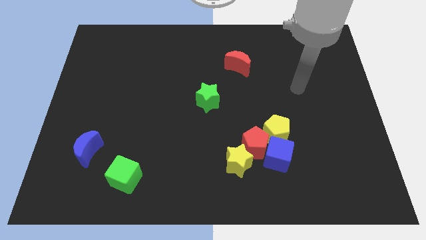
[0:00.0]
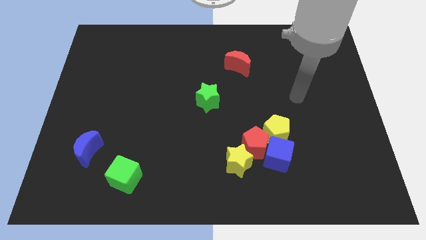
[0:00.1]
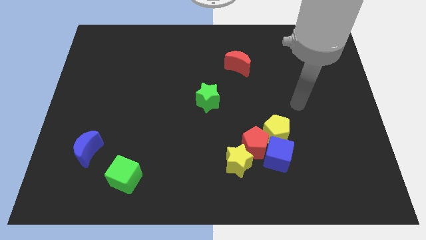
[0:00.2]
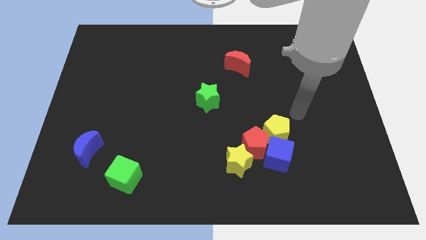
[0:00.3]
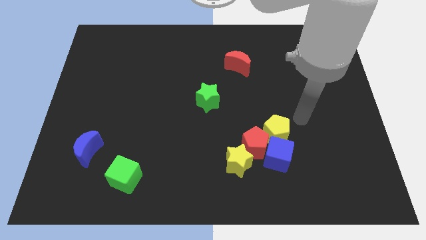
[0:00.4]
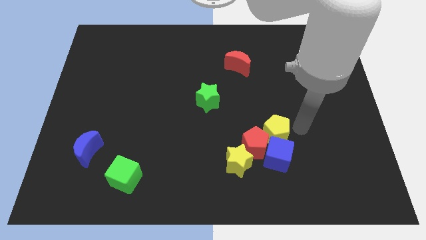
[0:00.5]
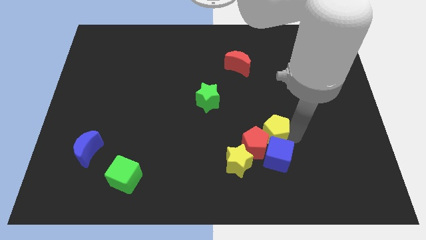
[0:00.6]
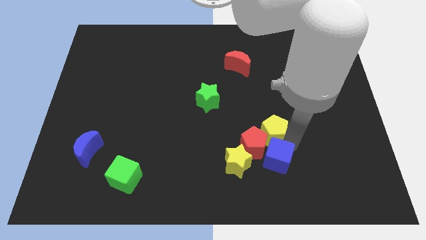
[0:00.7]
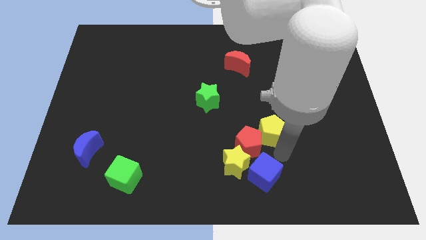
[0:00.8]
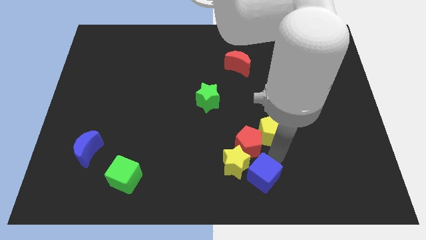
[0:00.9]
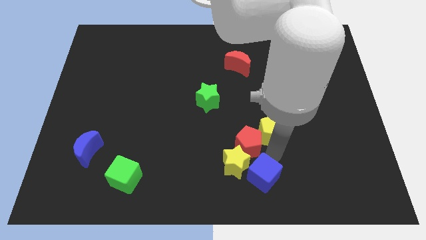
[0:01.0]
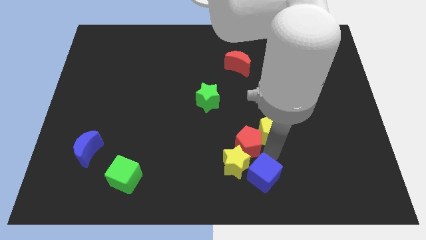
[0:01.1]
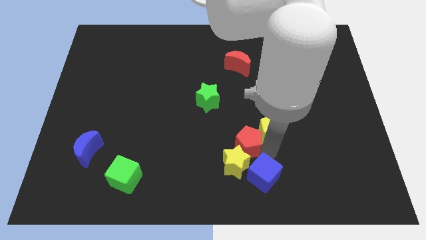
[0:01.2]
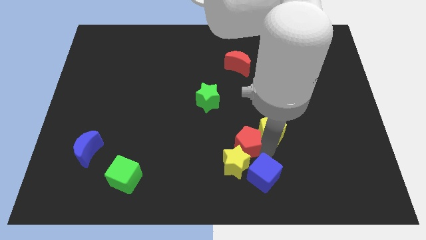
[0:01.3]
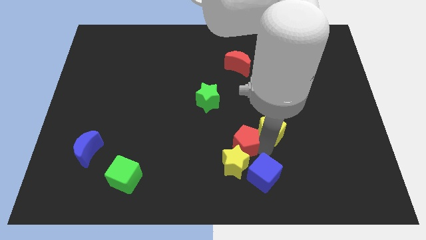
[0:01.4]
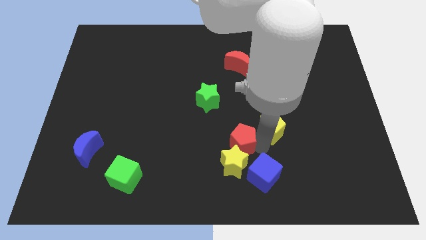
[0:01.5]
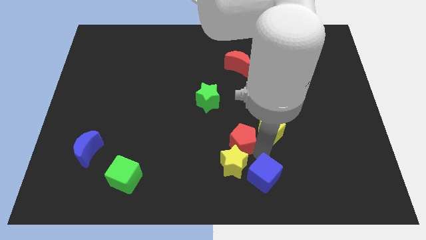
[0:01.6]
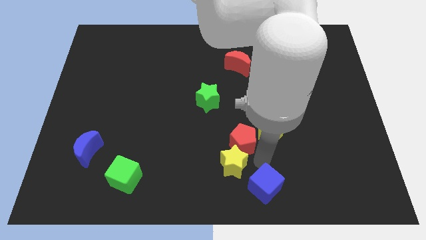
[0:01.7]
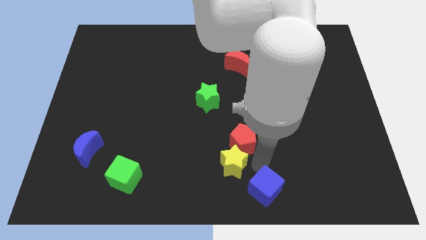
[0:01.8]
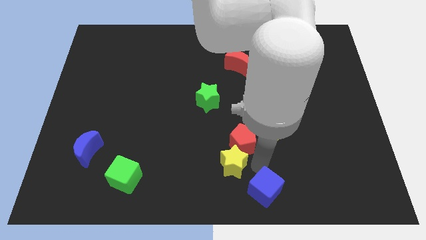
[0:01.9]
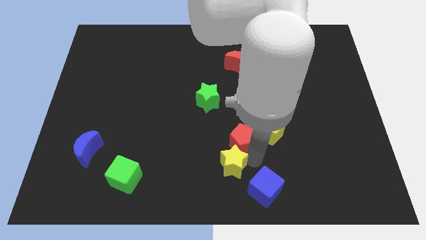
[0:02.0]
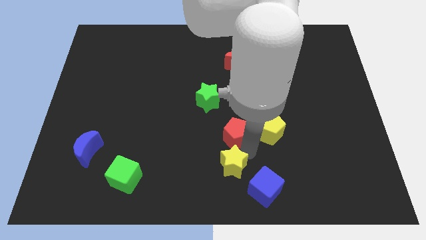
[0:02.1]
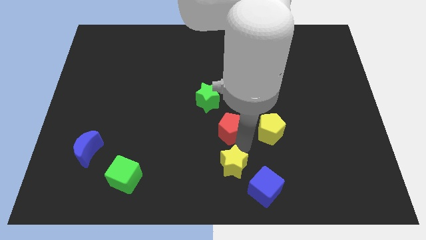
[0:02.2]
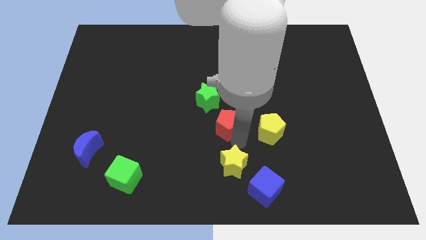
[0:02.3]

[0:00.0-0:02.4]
pull the red pentagon apart from the blue cube, yellow star, and yellow pentagon

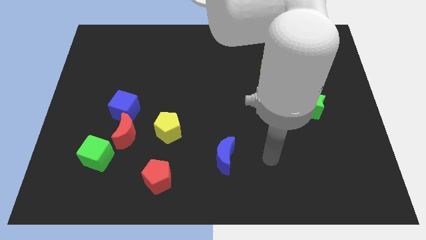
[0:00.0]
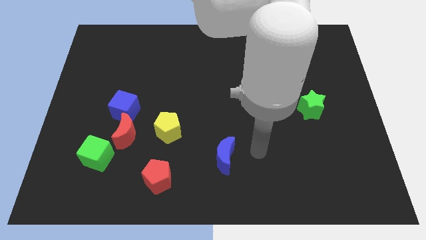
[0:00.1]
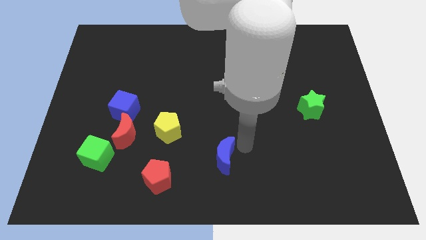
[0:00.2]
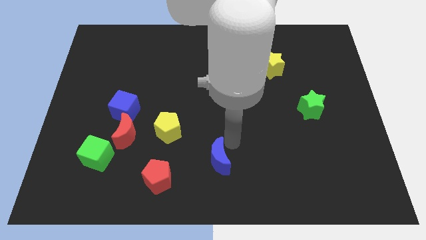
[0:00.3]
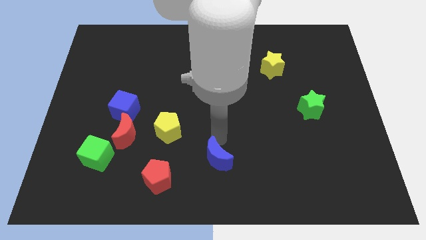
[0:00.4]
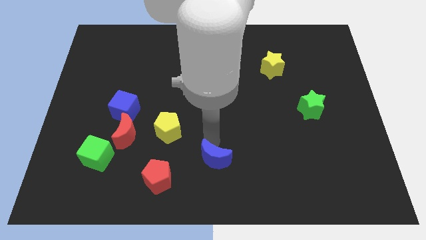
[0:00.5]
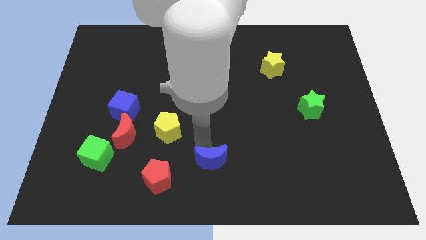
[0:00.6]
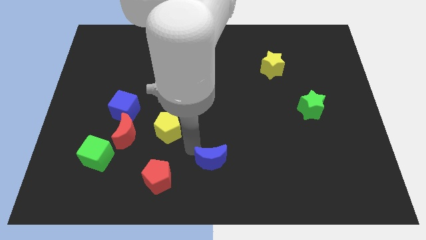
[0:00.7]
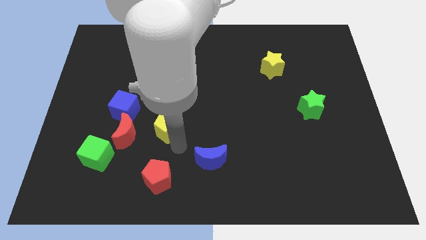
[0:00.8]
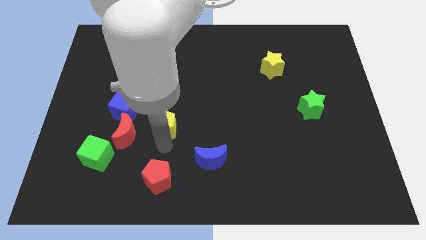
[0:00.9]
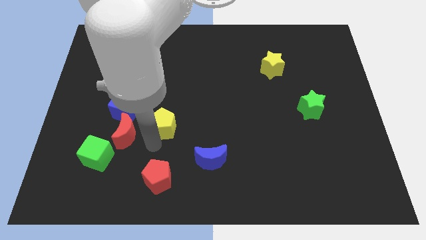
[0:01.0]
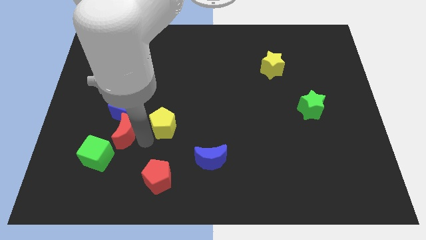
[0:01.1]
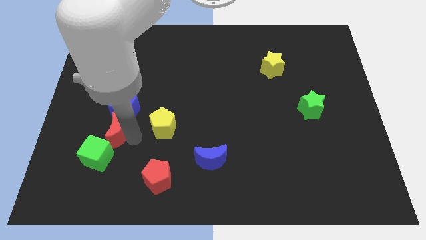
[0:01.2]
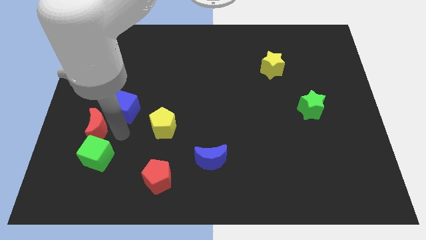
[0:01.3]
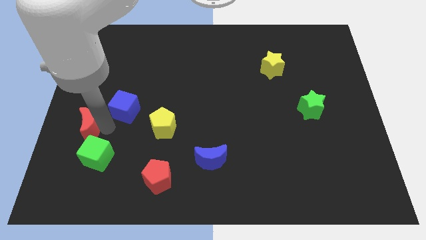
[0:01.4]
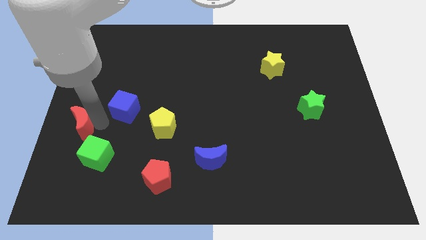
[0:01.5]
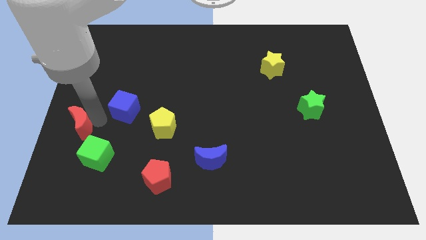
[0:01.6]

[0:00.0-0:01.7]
separate the blue cube from the red moon

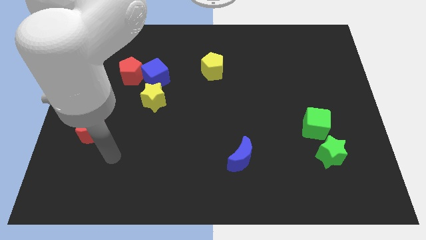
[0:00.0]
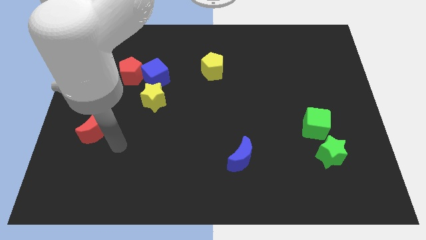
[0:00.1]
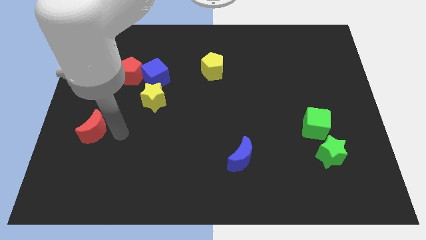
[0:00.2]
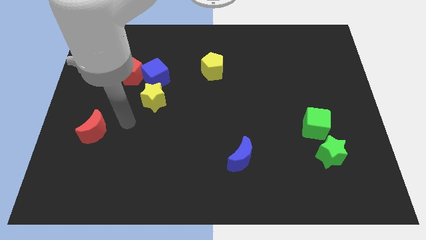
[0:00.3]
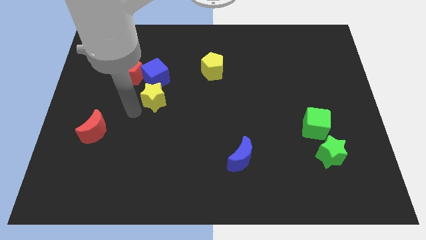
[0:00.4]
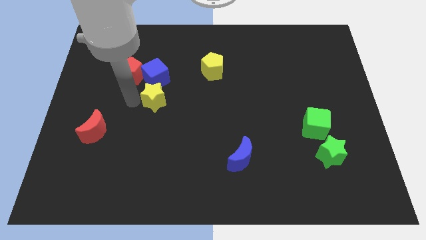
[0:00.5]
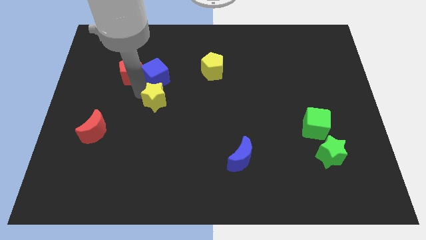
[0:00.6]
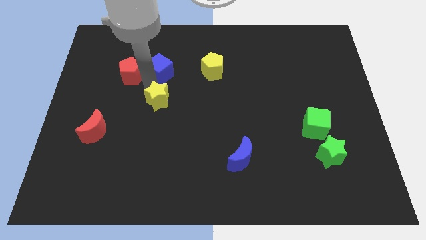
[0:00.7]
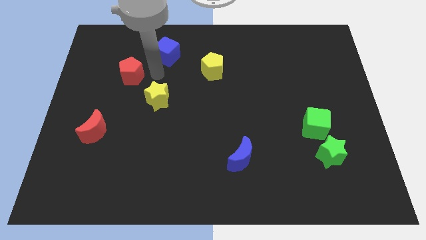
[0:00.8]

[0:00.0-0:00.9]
move the red pentagon away from the blue cube

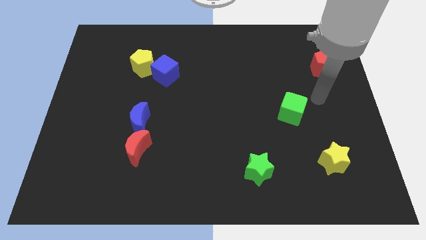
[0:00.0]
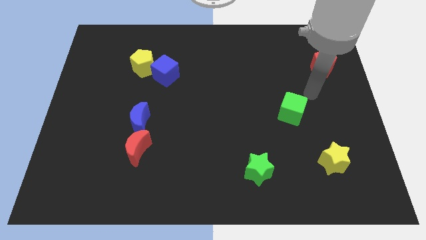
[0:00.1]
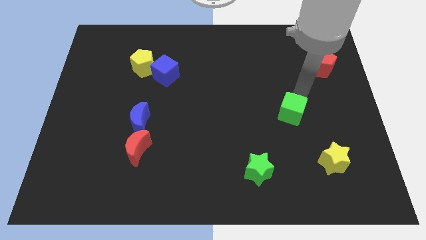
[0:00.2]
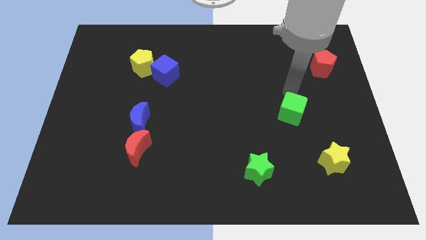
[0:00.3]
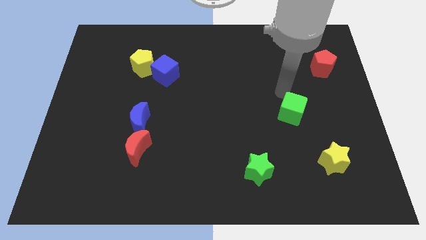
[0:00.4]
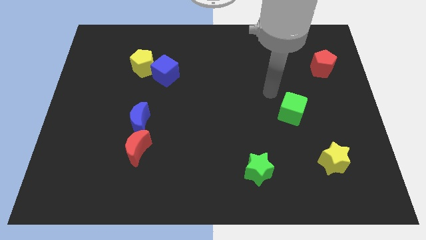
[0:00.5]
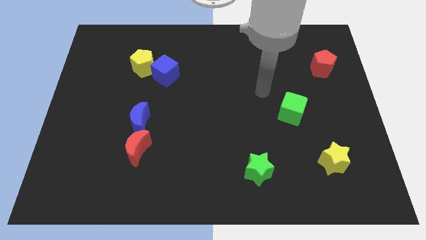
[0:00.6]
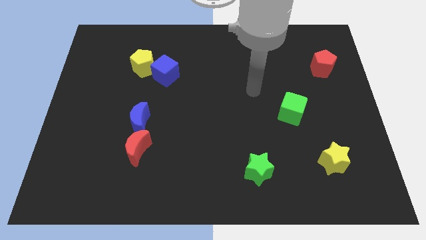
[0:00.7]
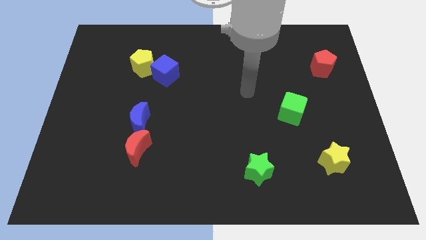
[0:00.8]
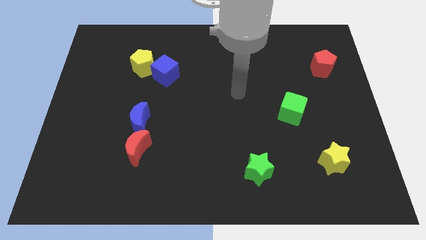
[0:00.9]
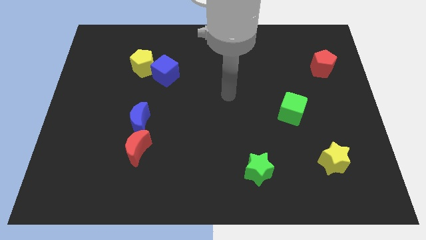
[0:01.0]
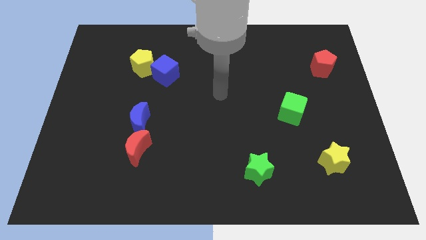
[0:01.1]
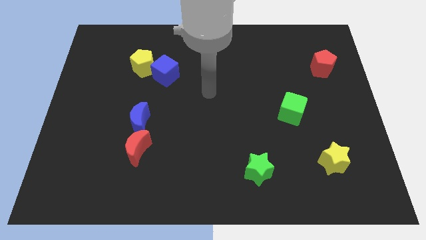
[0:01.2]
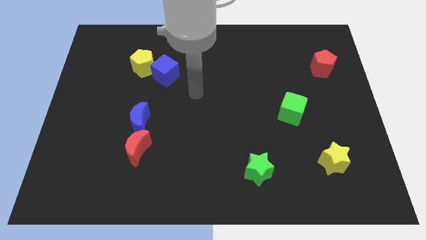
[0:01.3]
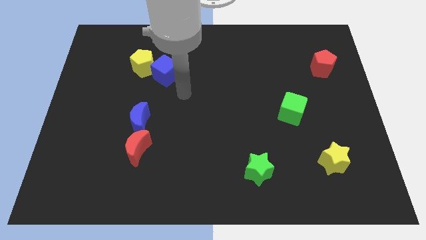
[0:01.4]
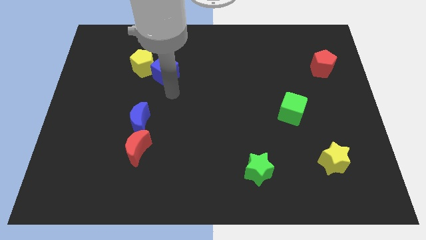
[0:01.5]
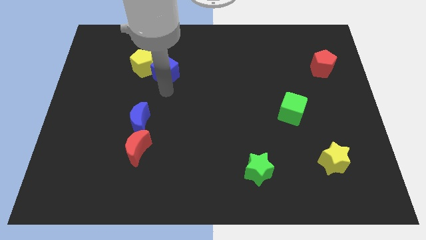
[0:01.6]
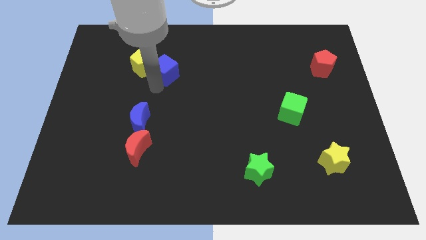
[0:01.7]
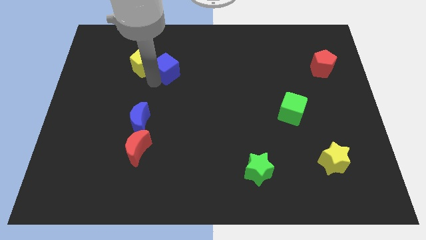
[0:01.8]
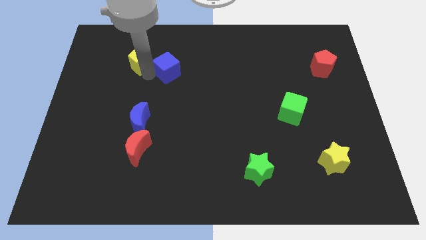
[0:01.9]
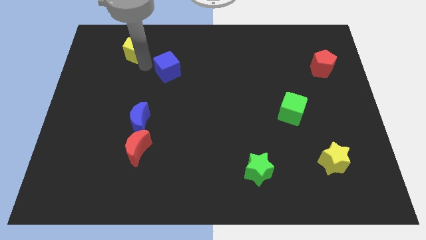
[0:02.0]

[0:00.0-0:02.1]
pull the blue cube apart from the yellow pentagon

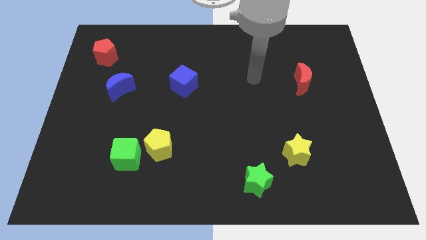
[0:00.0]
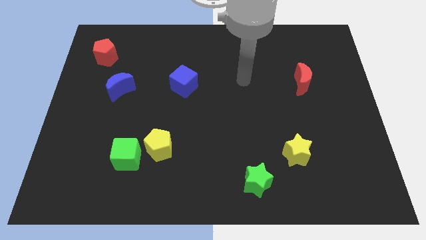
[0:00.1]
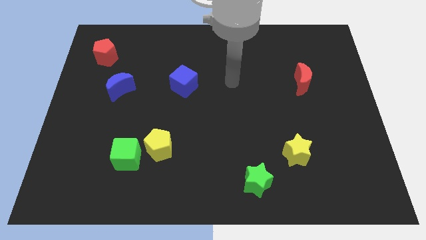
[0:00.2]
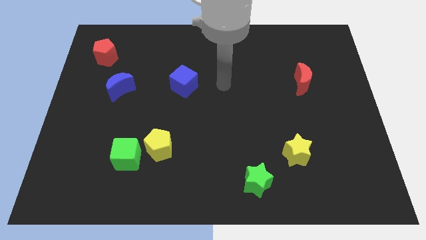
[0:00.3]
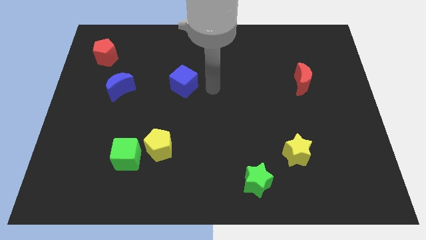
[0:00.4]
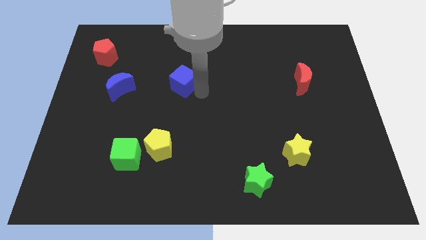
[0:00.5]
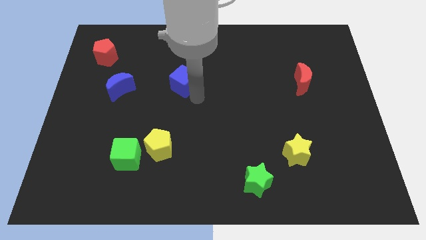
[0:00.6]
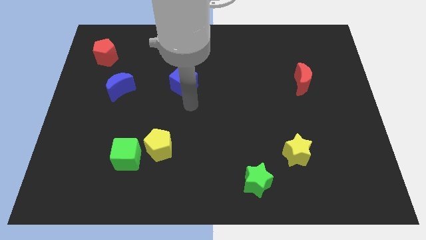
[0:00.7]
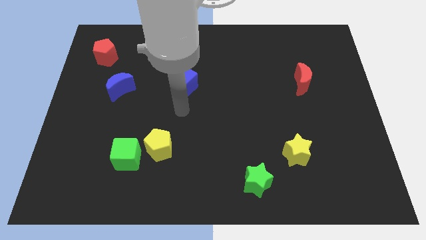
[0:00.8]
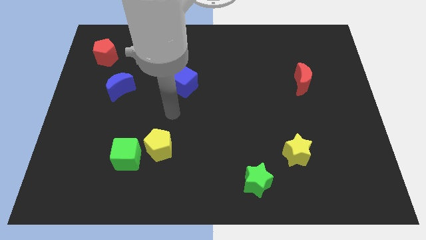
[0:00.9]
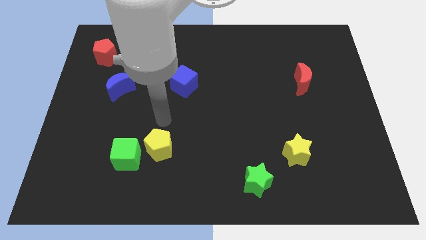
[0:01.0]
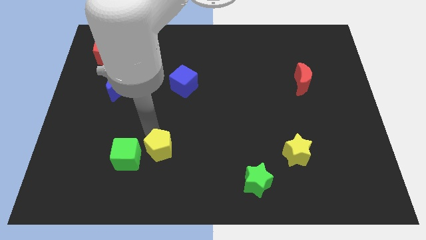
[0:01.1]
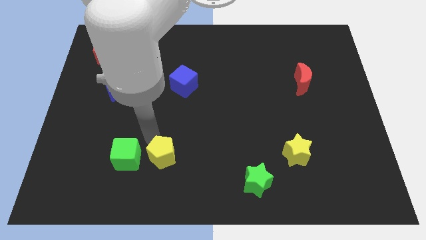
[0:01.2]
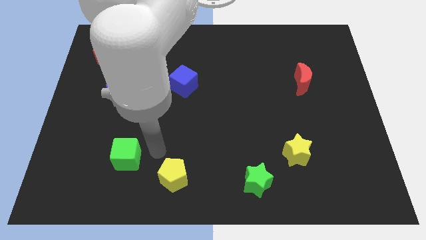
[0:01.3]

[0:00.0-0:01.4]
move the green cube away from the yellow pentagon

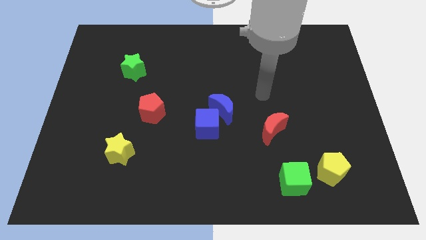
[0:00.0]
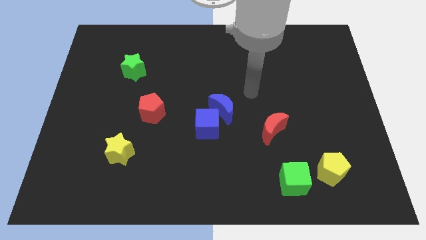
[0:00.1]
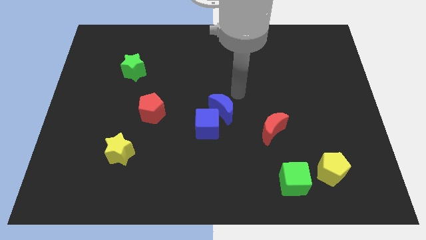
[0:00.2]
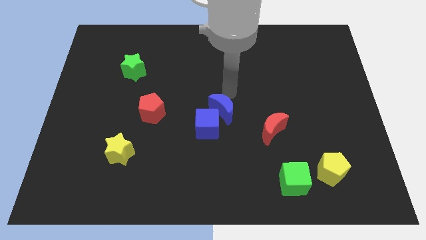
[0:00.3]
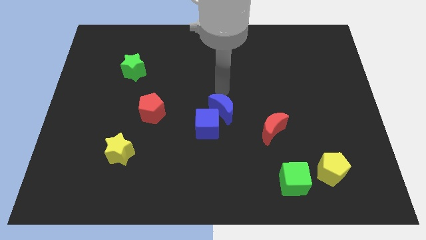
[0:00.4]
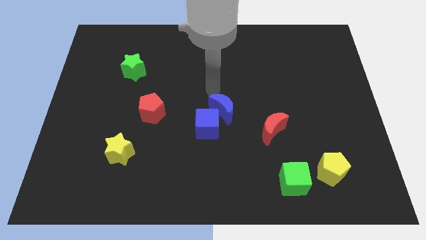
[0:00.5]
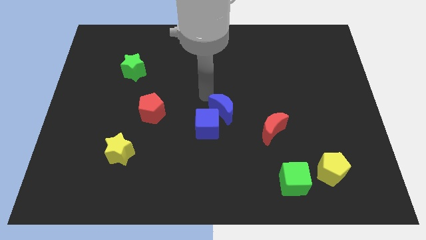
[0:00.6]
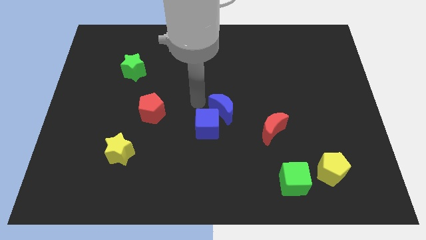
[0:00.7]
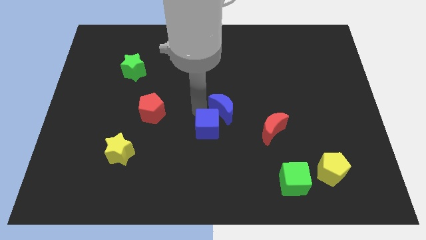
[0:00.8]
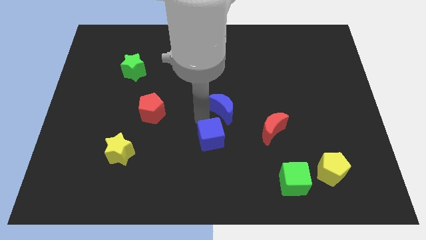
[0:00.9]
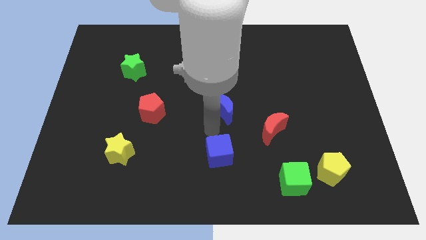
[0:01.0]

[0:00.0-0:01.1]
pull the blue moon apart from the blue cube
